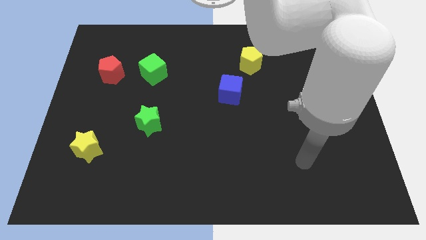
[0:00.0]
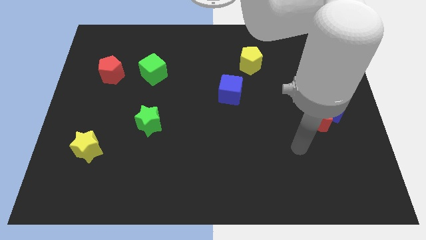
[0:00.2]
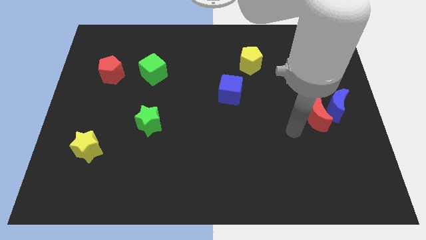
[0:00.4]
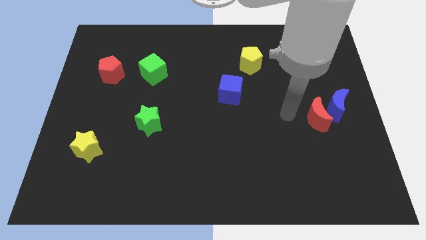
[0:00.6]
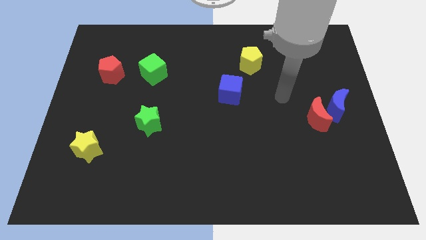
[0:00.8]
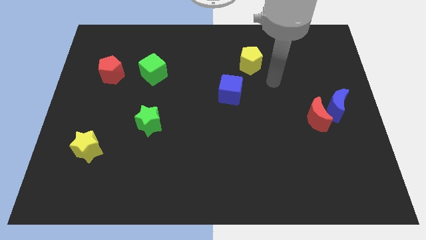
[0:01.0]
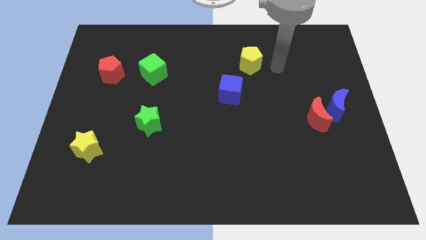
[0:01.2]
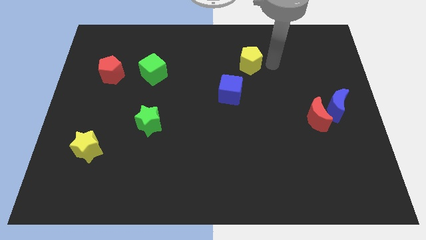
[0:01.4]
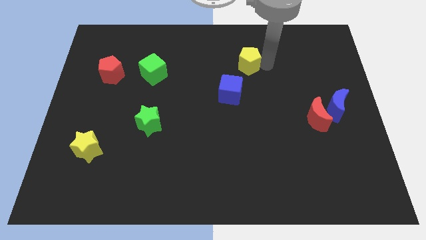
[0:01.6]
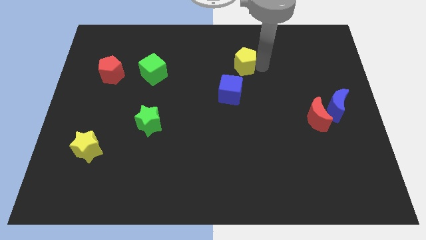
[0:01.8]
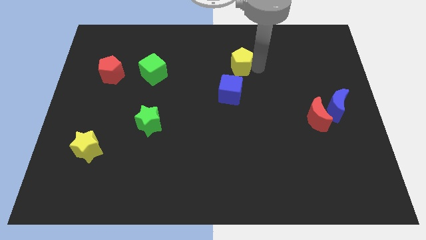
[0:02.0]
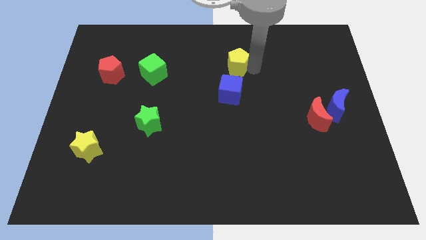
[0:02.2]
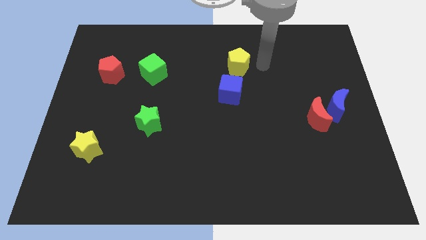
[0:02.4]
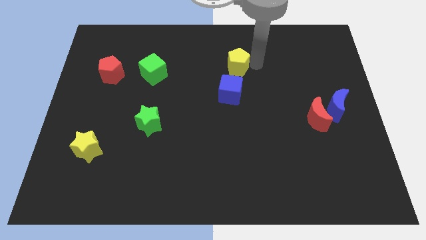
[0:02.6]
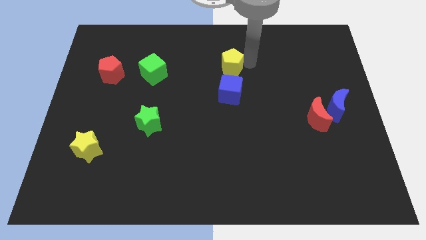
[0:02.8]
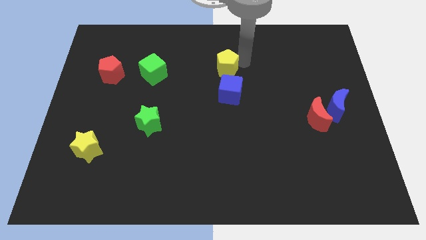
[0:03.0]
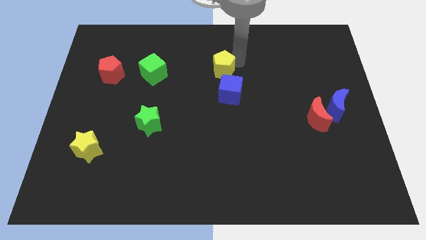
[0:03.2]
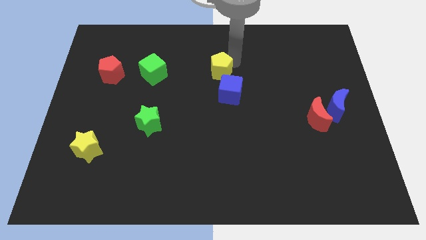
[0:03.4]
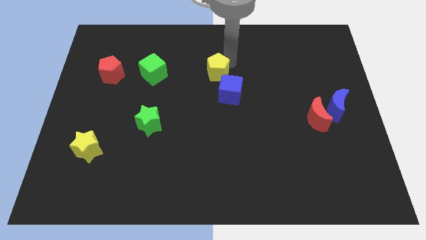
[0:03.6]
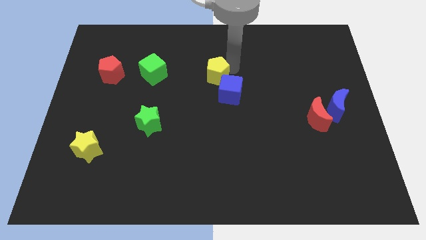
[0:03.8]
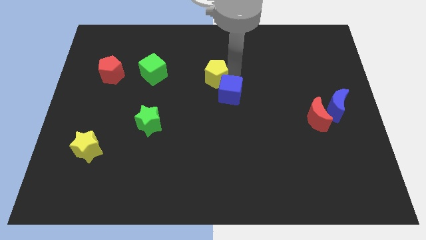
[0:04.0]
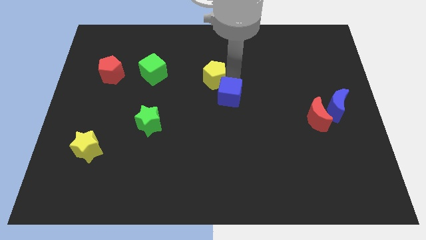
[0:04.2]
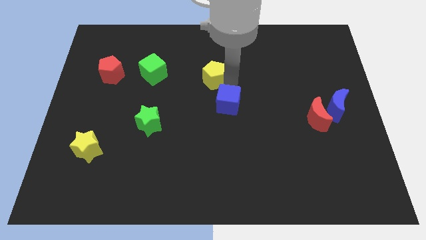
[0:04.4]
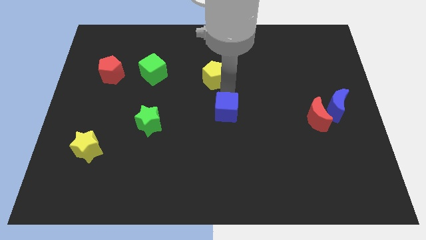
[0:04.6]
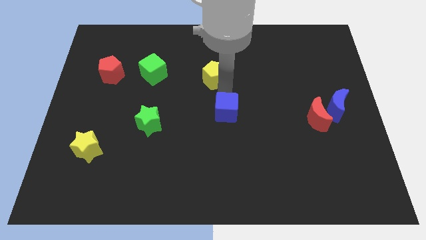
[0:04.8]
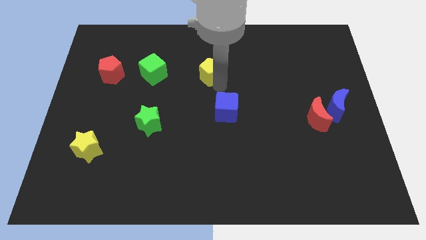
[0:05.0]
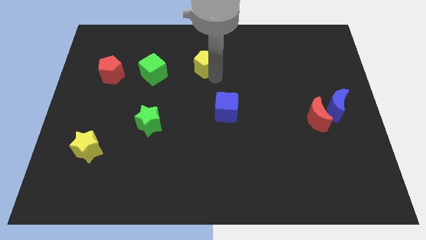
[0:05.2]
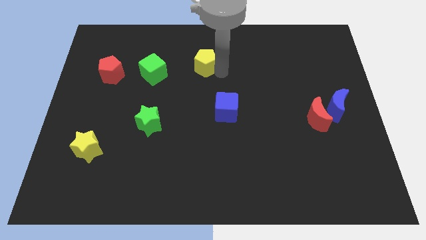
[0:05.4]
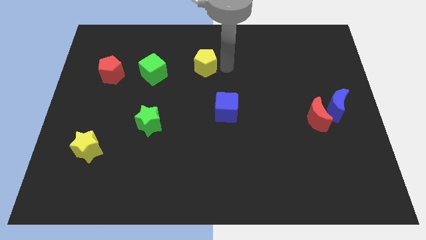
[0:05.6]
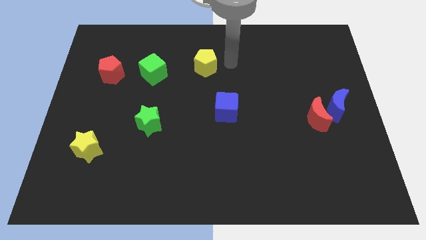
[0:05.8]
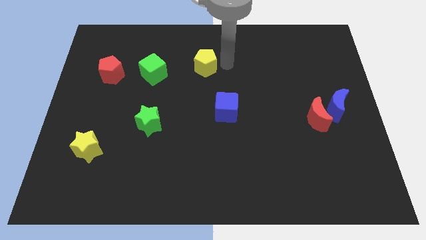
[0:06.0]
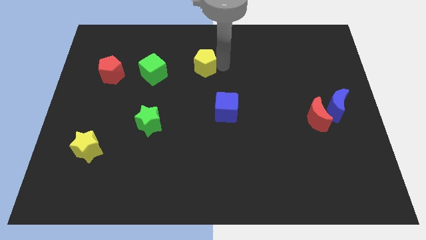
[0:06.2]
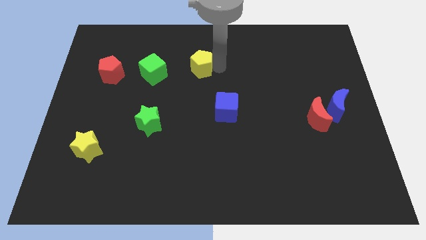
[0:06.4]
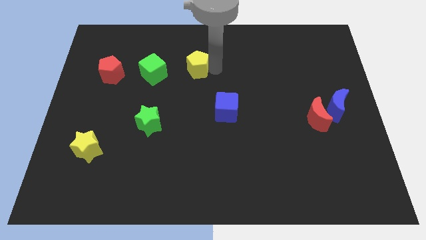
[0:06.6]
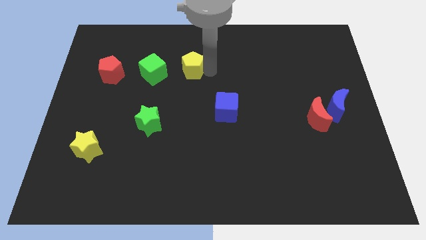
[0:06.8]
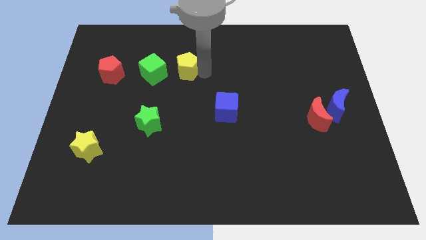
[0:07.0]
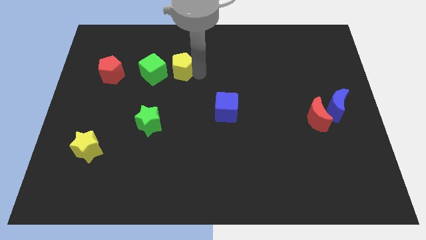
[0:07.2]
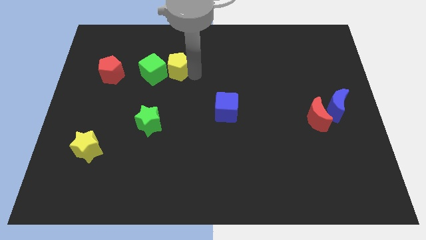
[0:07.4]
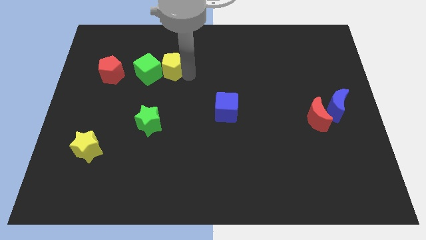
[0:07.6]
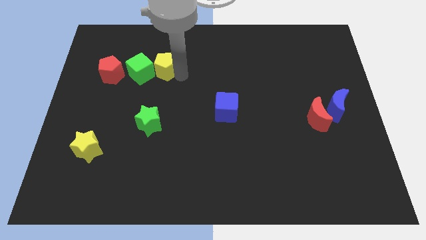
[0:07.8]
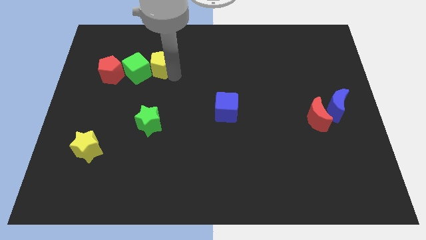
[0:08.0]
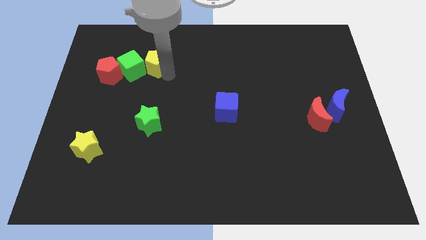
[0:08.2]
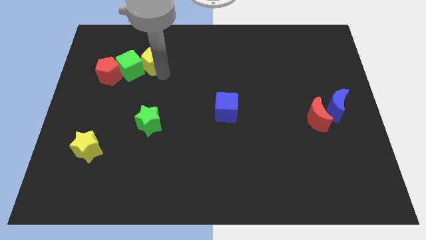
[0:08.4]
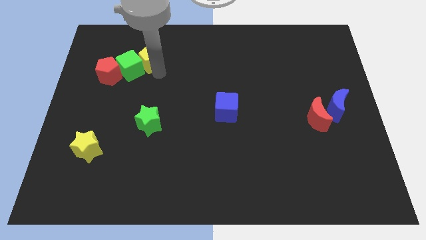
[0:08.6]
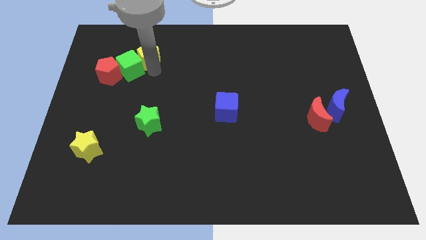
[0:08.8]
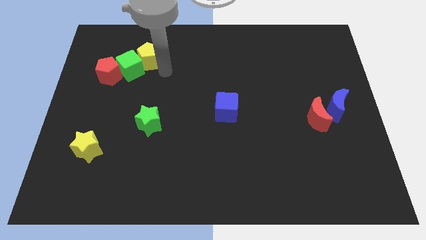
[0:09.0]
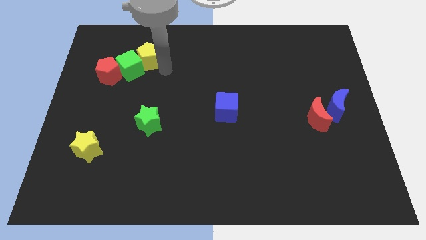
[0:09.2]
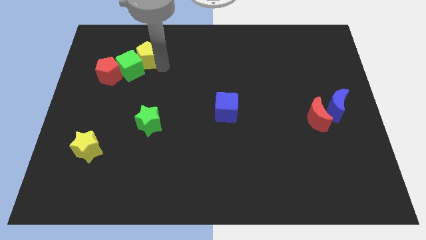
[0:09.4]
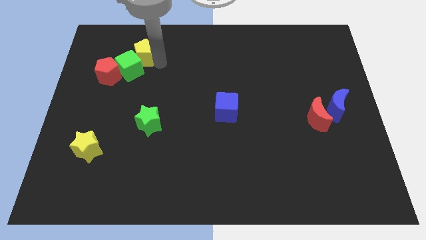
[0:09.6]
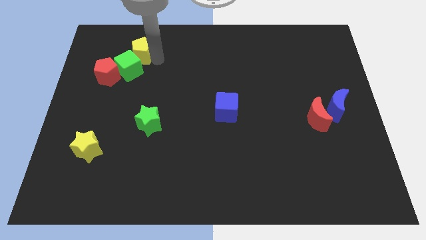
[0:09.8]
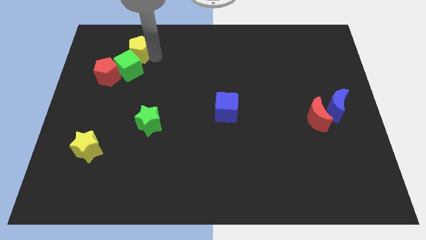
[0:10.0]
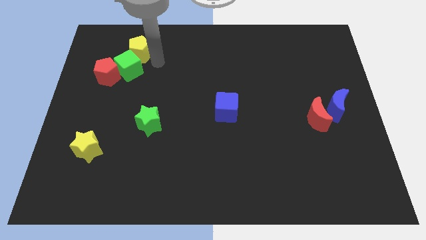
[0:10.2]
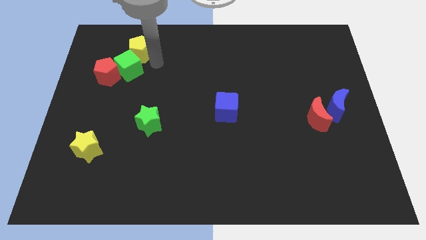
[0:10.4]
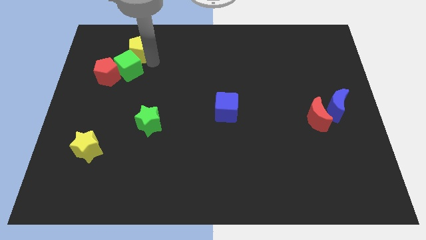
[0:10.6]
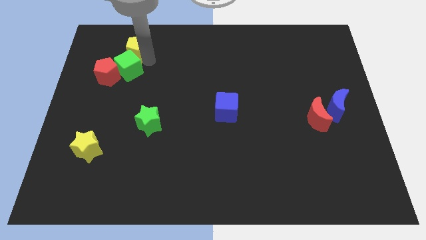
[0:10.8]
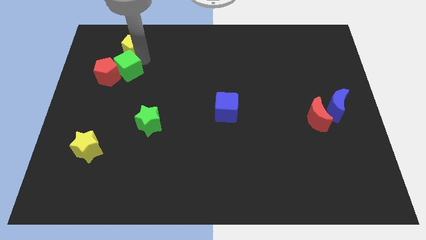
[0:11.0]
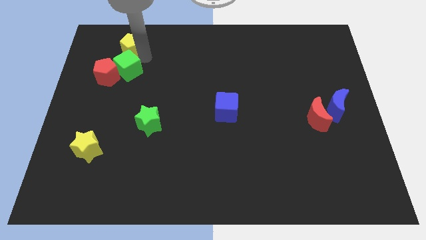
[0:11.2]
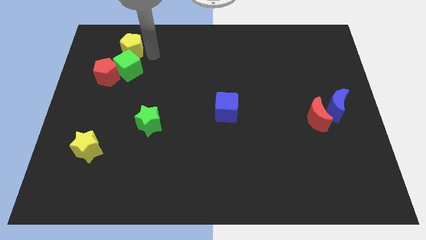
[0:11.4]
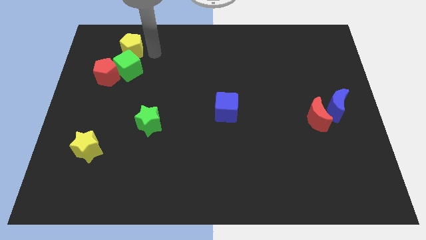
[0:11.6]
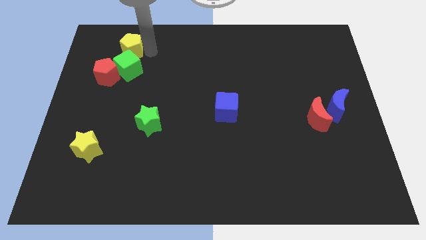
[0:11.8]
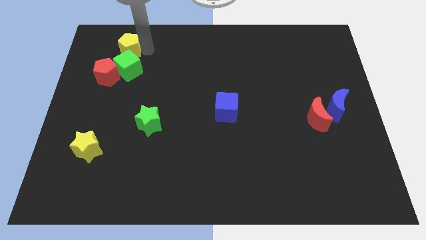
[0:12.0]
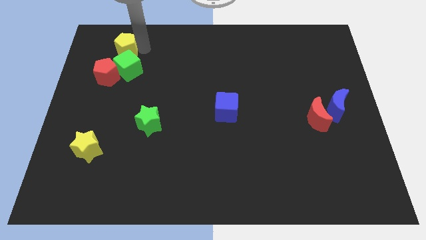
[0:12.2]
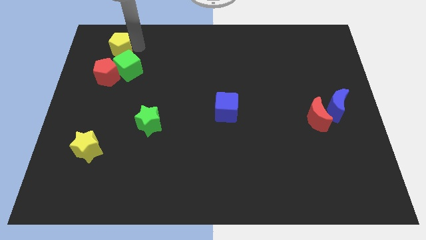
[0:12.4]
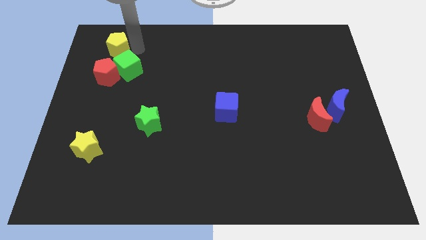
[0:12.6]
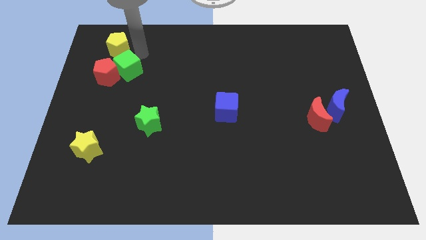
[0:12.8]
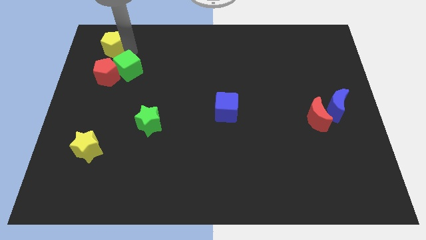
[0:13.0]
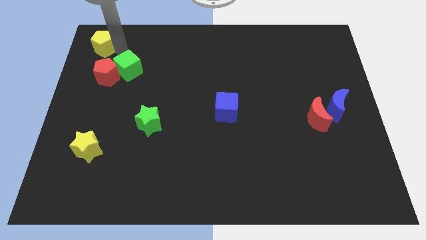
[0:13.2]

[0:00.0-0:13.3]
move the yellow pentagon to the upper left corner

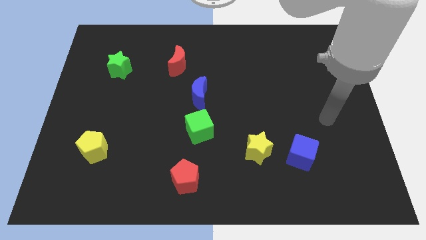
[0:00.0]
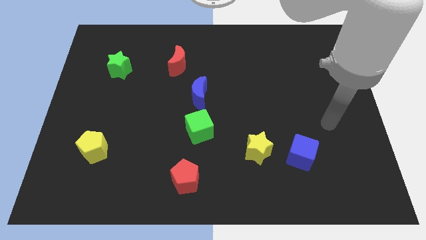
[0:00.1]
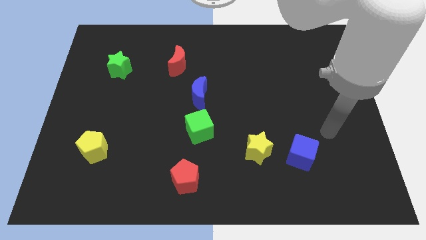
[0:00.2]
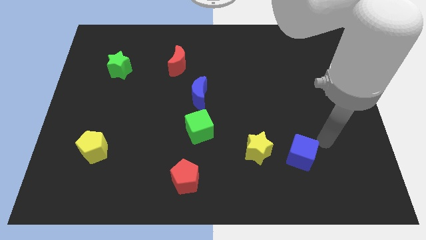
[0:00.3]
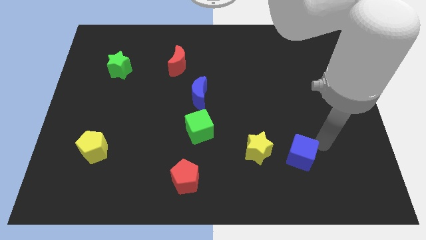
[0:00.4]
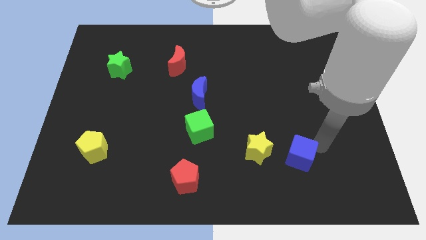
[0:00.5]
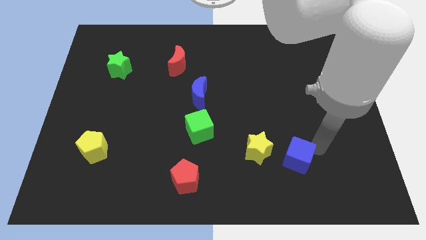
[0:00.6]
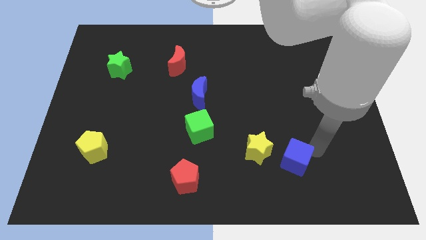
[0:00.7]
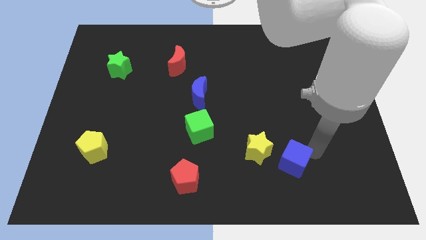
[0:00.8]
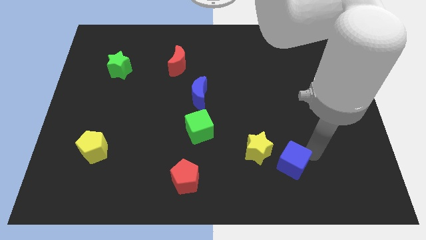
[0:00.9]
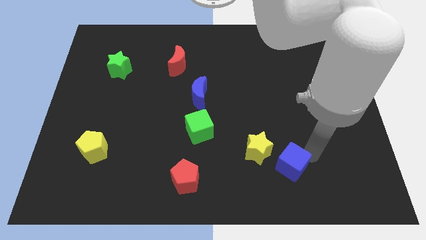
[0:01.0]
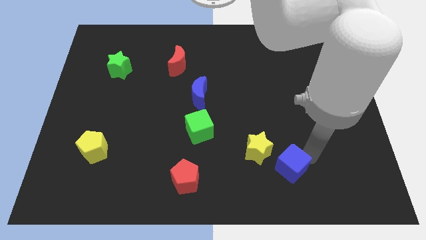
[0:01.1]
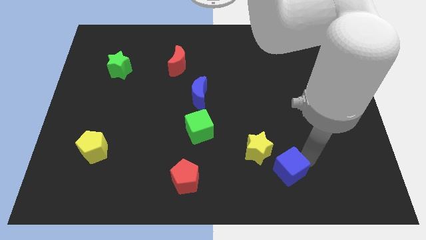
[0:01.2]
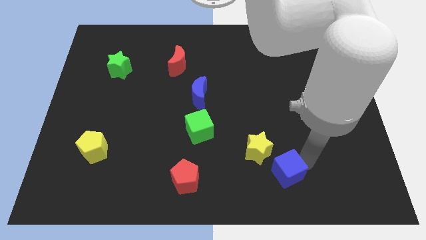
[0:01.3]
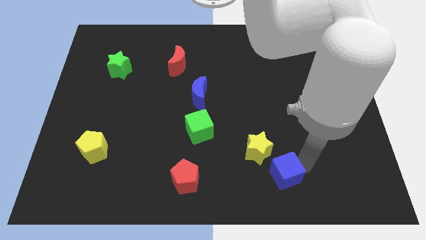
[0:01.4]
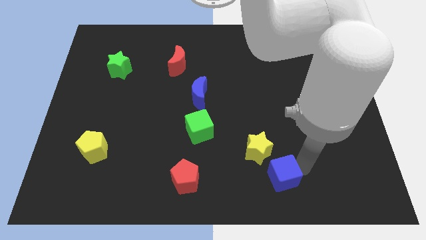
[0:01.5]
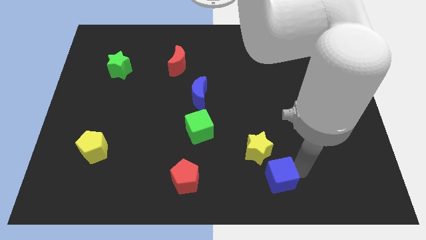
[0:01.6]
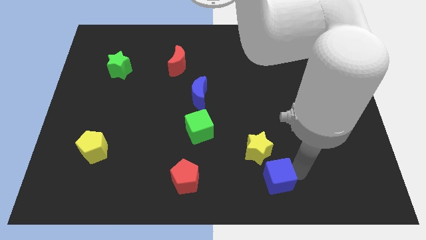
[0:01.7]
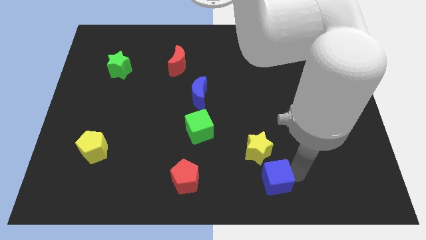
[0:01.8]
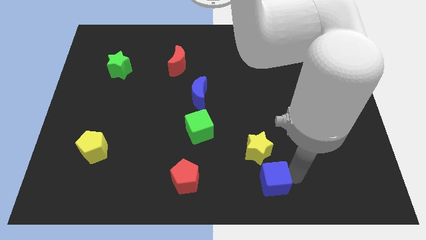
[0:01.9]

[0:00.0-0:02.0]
slide the blue cube to the bottom side
